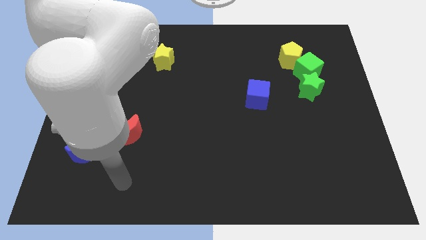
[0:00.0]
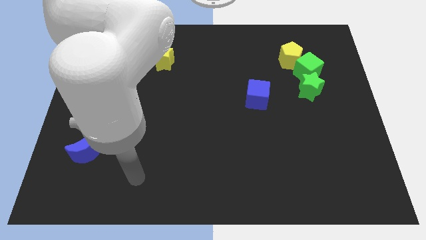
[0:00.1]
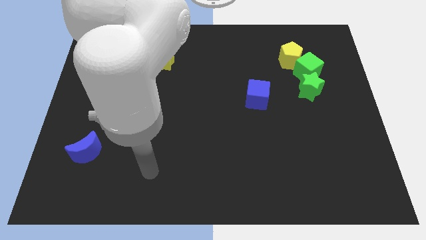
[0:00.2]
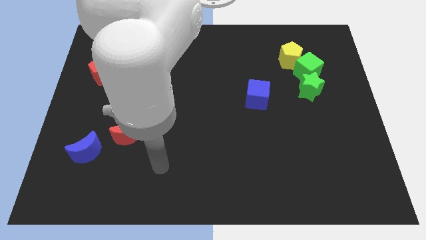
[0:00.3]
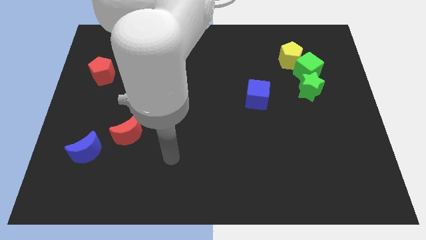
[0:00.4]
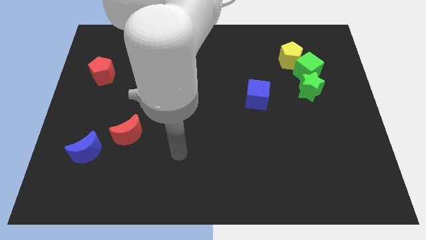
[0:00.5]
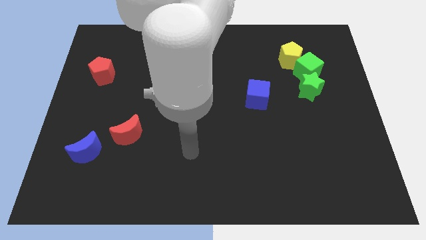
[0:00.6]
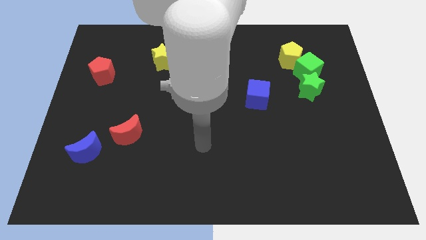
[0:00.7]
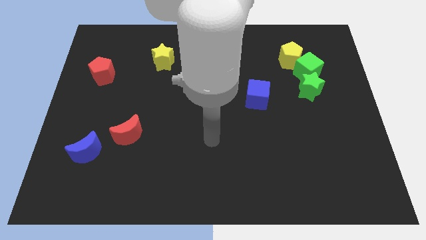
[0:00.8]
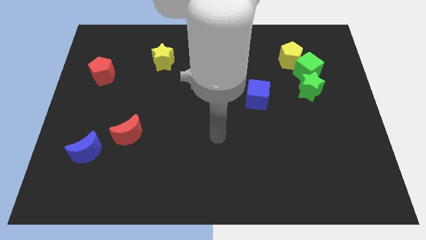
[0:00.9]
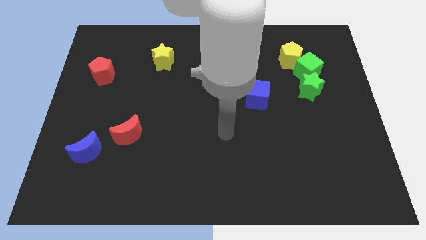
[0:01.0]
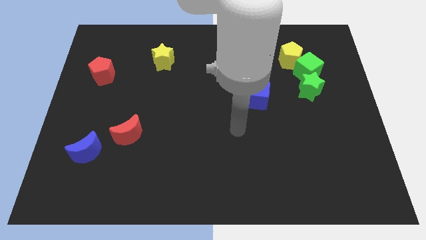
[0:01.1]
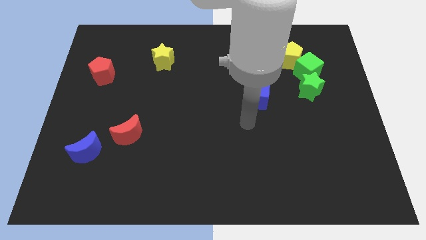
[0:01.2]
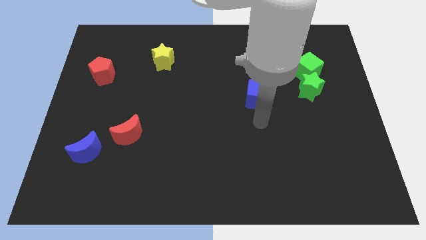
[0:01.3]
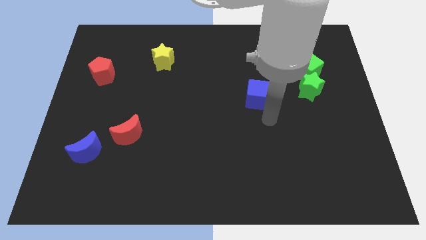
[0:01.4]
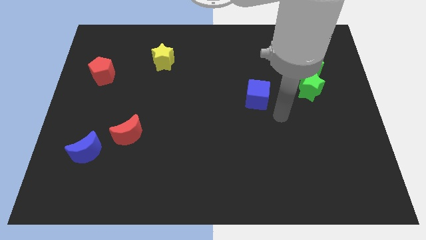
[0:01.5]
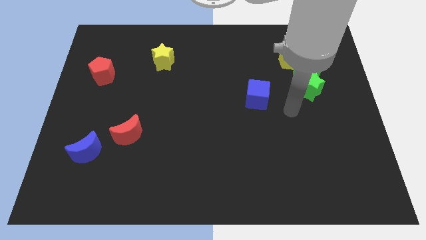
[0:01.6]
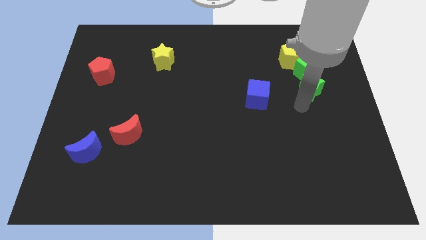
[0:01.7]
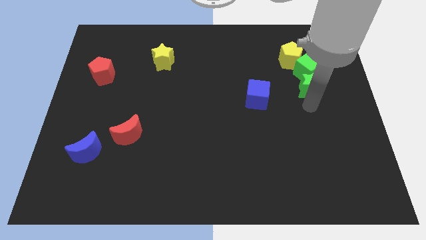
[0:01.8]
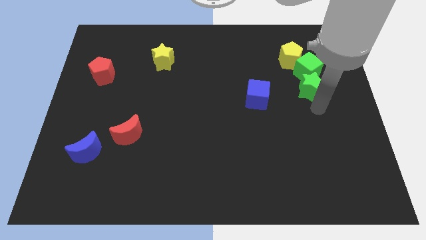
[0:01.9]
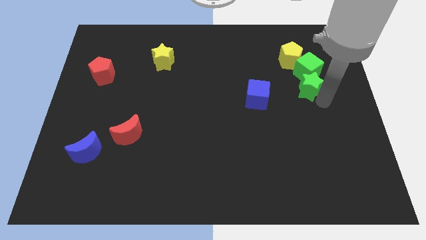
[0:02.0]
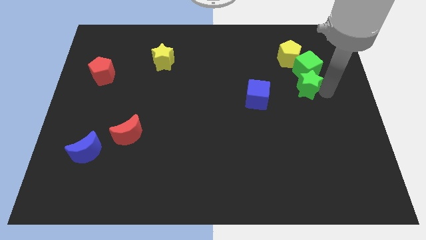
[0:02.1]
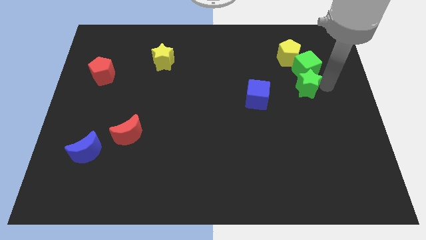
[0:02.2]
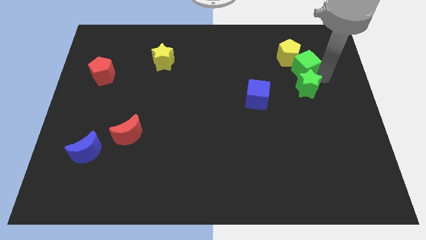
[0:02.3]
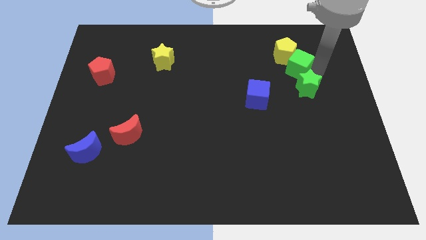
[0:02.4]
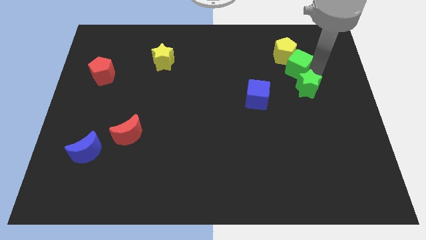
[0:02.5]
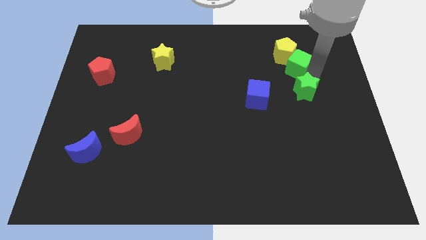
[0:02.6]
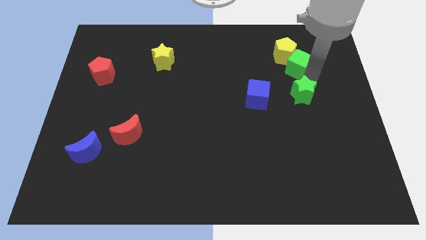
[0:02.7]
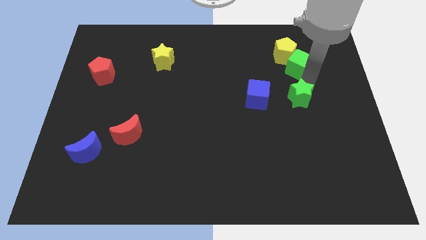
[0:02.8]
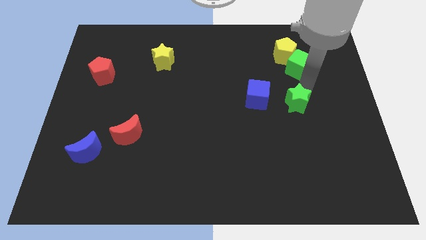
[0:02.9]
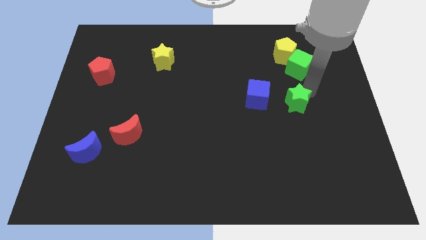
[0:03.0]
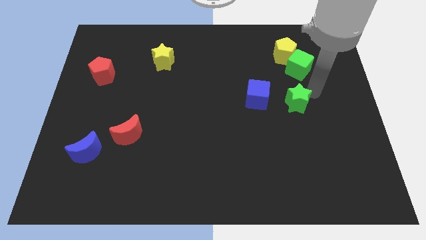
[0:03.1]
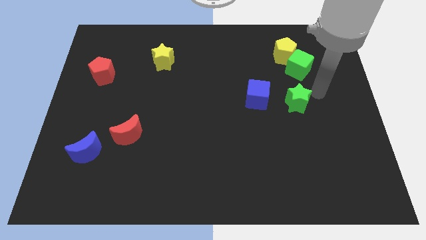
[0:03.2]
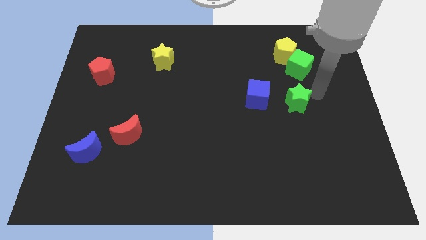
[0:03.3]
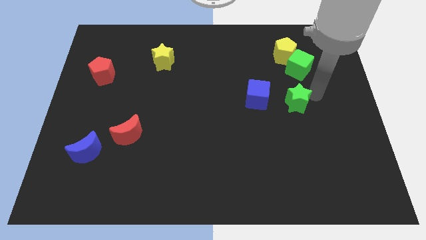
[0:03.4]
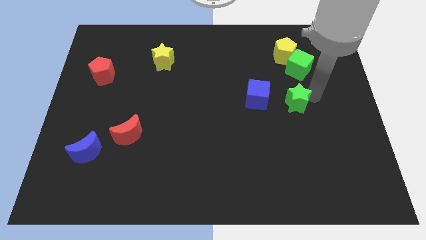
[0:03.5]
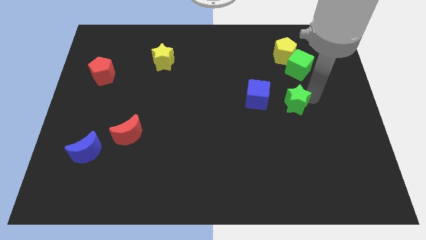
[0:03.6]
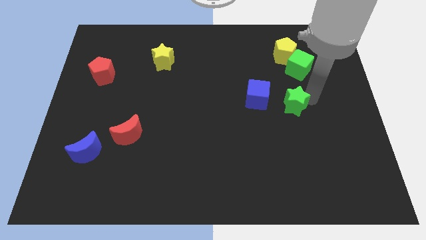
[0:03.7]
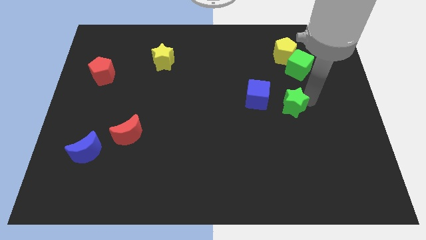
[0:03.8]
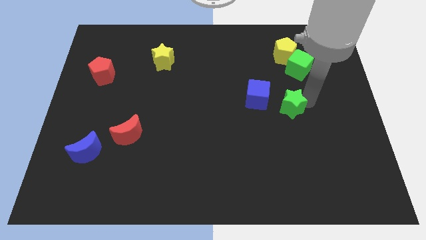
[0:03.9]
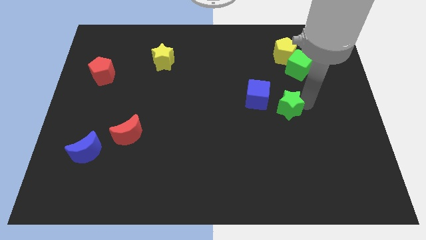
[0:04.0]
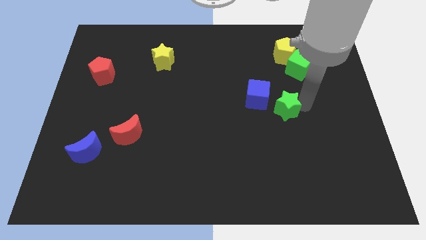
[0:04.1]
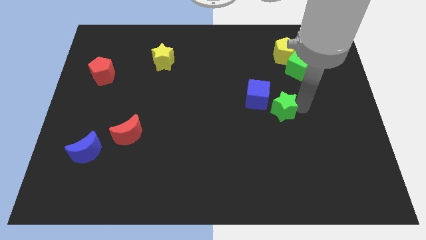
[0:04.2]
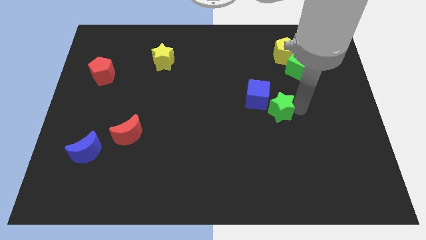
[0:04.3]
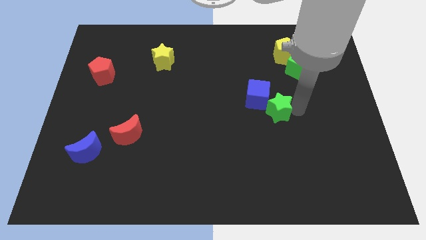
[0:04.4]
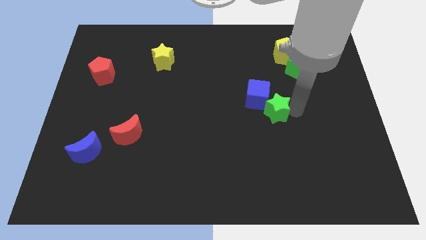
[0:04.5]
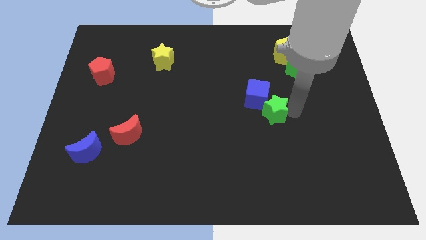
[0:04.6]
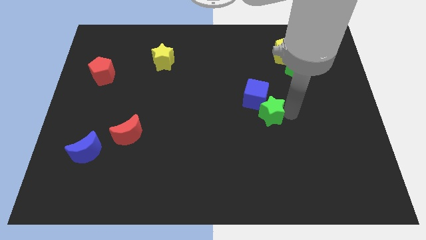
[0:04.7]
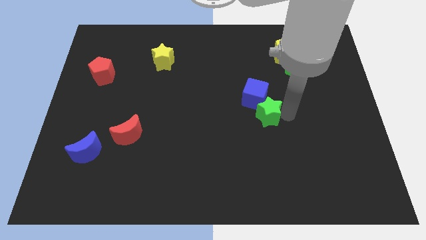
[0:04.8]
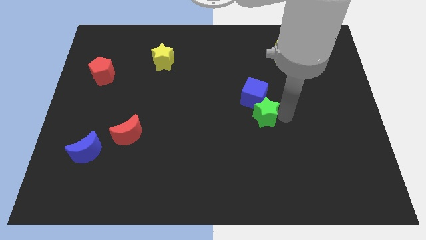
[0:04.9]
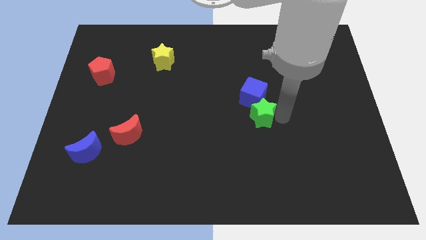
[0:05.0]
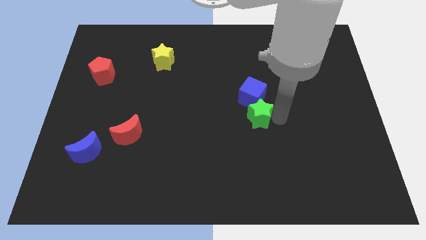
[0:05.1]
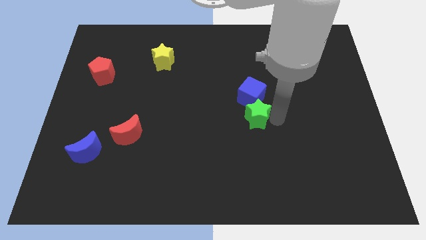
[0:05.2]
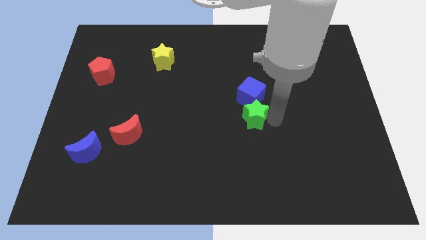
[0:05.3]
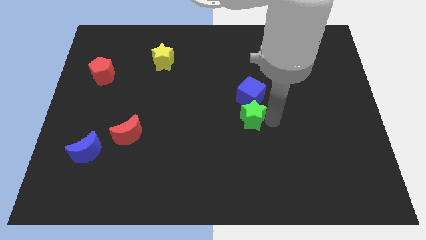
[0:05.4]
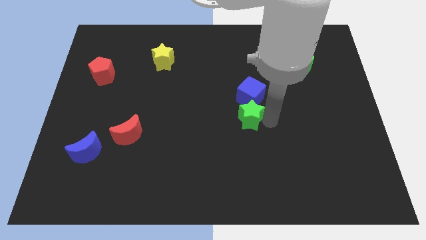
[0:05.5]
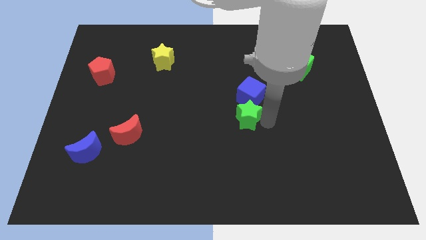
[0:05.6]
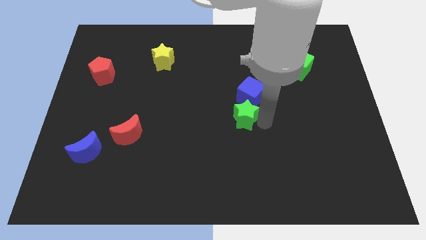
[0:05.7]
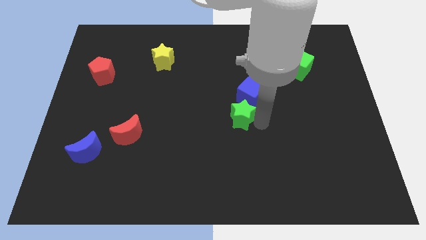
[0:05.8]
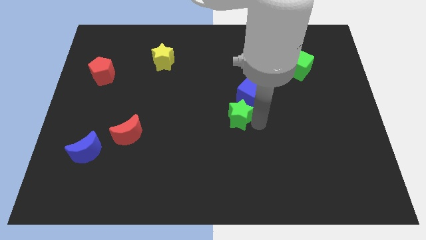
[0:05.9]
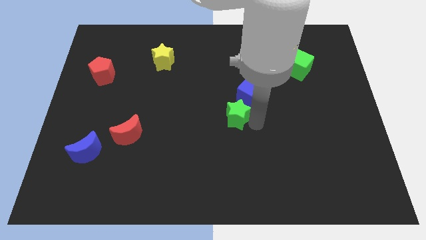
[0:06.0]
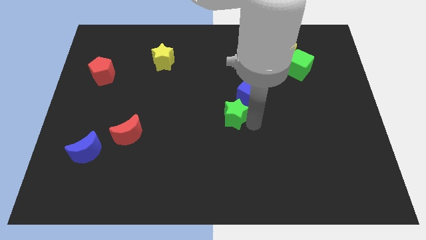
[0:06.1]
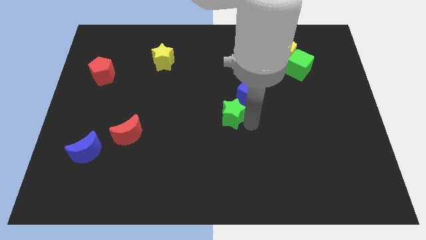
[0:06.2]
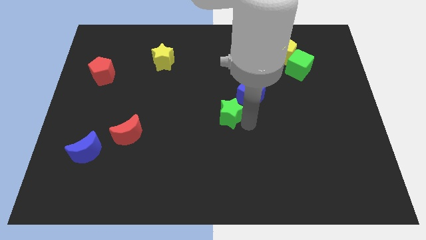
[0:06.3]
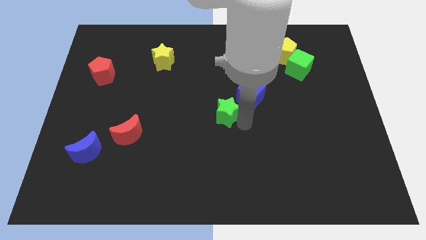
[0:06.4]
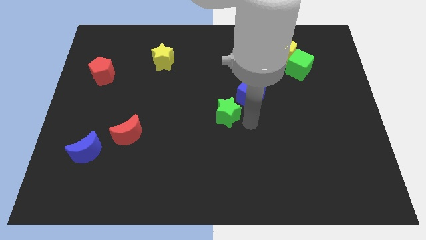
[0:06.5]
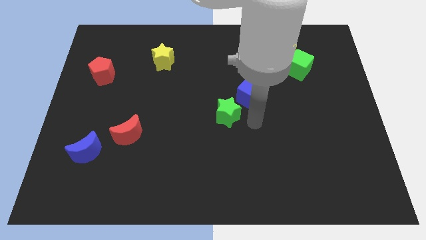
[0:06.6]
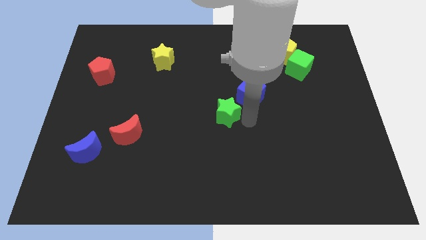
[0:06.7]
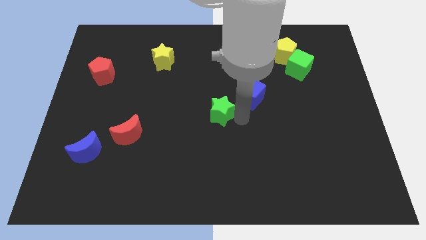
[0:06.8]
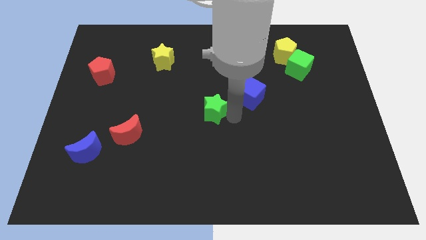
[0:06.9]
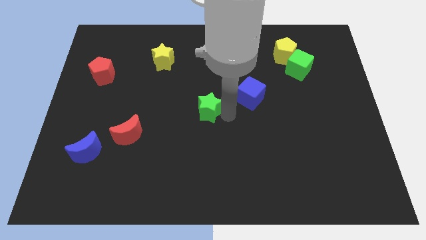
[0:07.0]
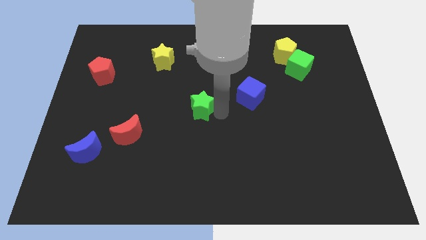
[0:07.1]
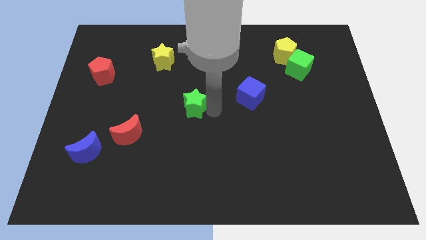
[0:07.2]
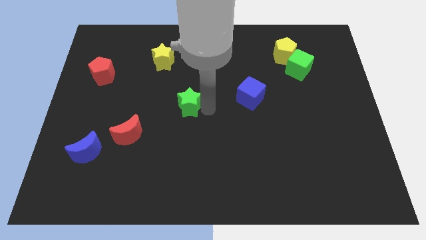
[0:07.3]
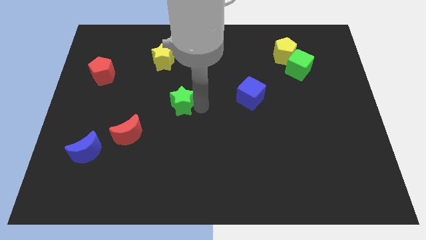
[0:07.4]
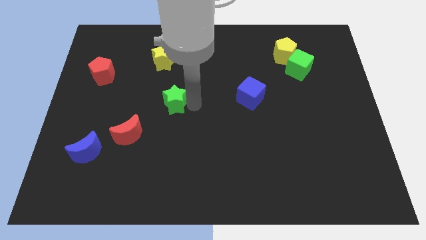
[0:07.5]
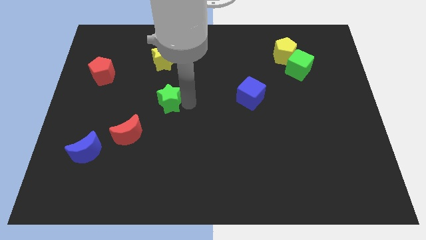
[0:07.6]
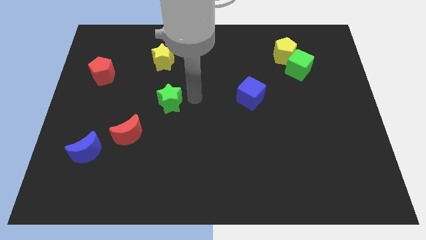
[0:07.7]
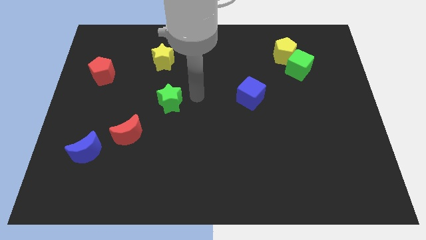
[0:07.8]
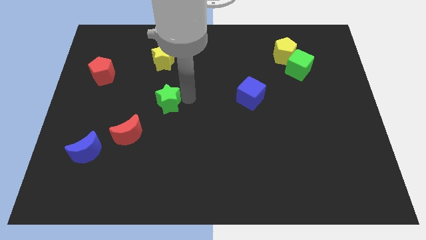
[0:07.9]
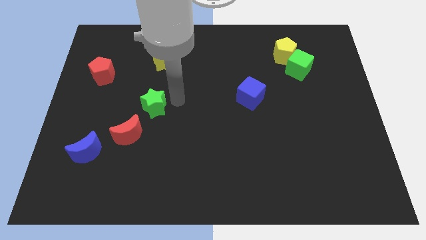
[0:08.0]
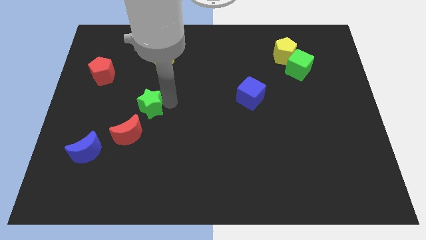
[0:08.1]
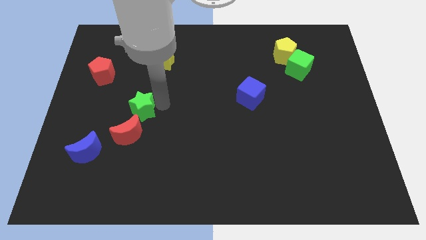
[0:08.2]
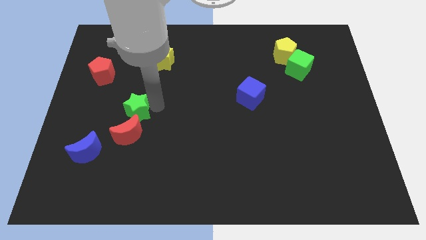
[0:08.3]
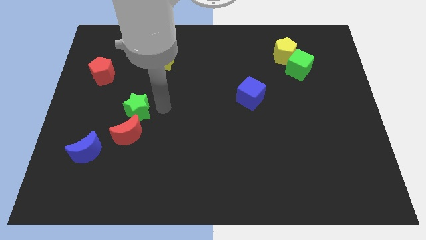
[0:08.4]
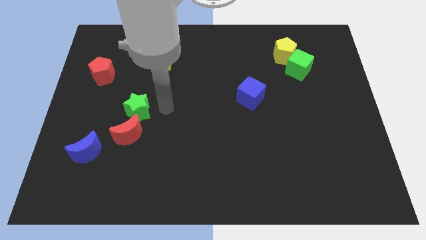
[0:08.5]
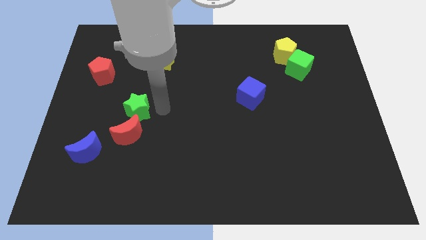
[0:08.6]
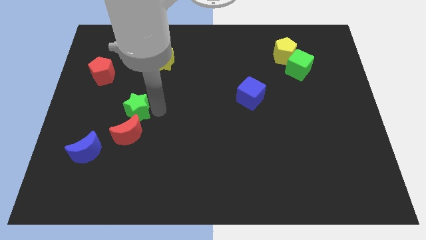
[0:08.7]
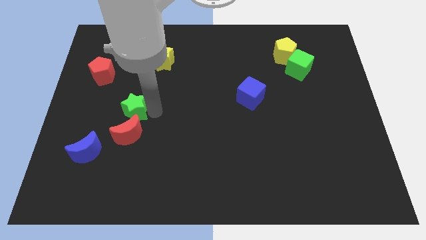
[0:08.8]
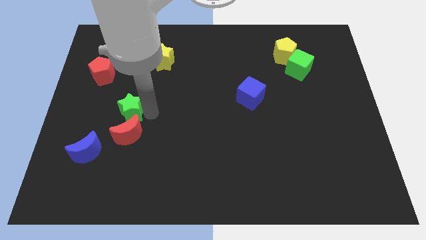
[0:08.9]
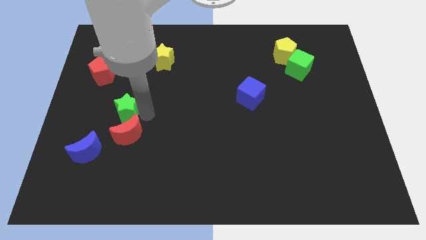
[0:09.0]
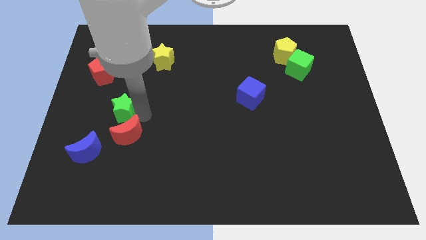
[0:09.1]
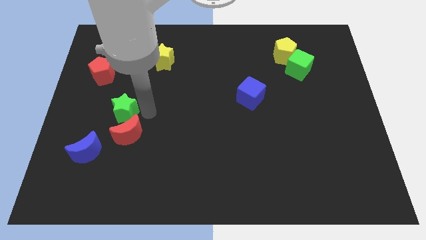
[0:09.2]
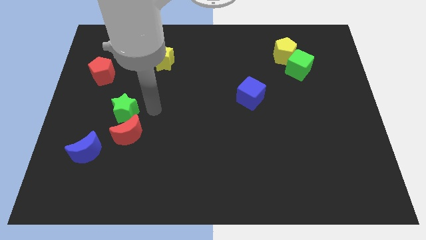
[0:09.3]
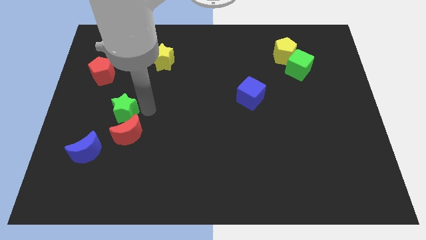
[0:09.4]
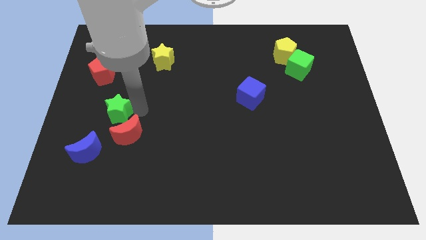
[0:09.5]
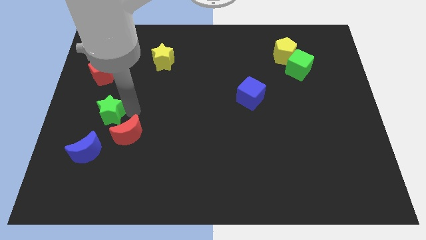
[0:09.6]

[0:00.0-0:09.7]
put the green star to the top side of the blue moon
